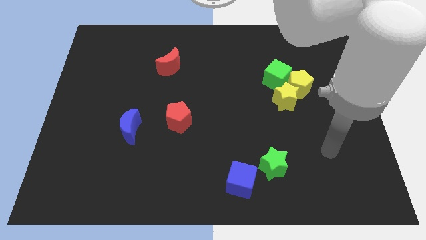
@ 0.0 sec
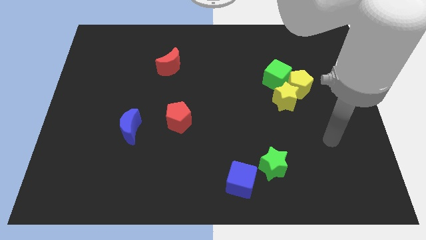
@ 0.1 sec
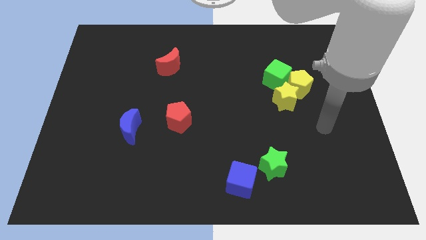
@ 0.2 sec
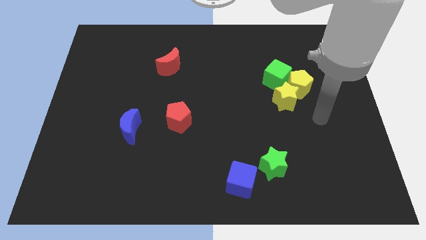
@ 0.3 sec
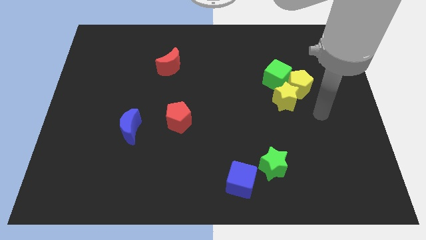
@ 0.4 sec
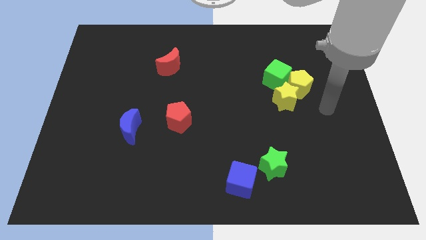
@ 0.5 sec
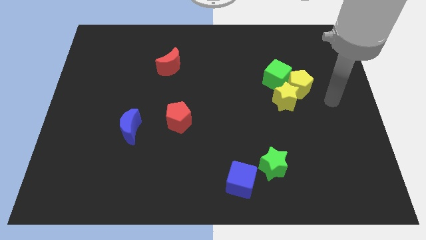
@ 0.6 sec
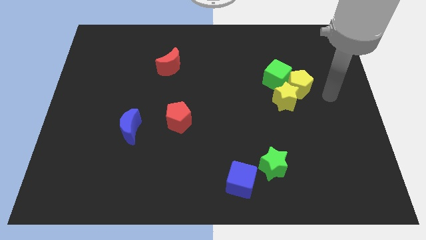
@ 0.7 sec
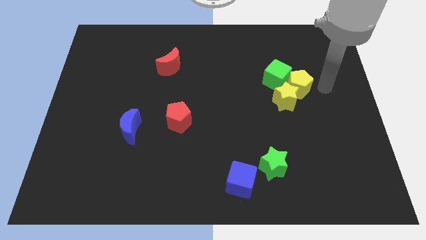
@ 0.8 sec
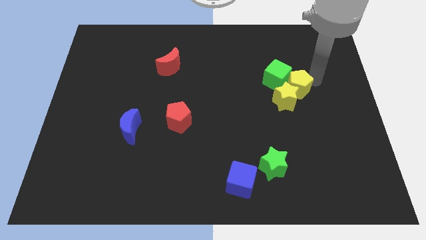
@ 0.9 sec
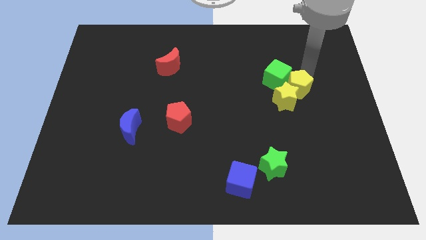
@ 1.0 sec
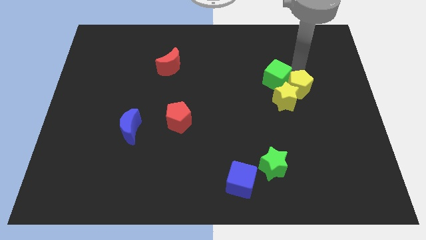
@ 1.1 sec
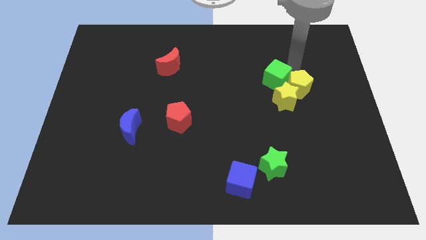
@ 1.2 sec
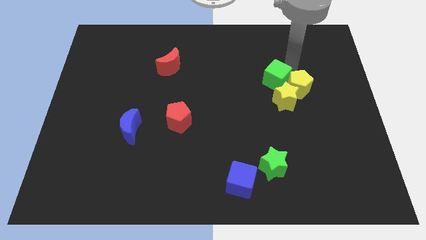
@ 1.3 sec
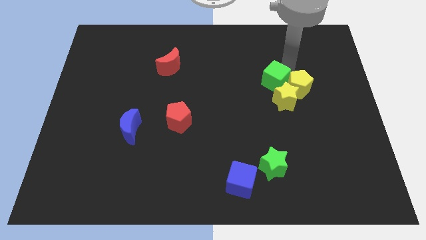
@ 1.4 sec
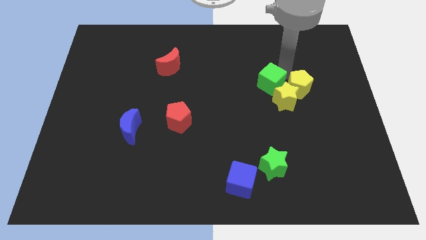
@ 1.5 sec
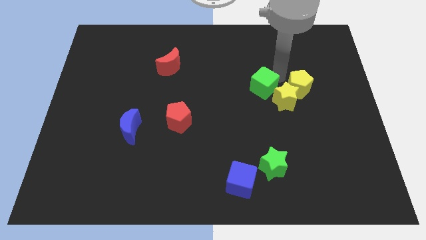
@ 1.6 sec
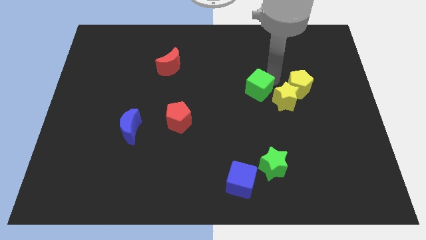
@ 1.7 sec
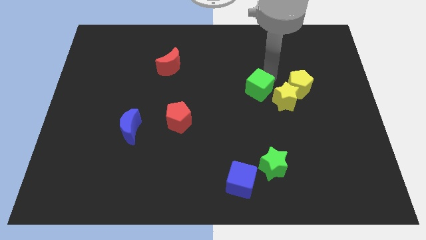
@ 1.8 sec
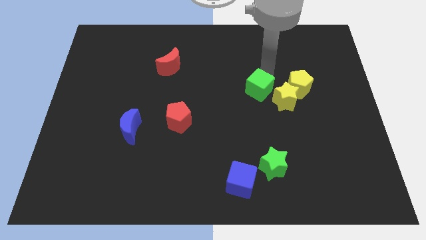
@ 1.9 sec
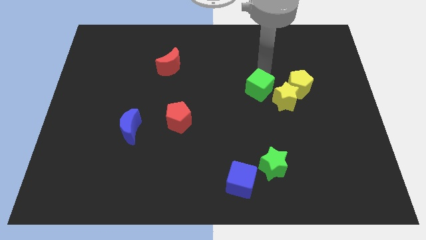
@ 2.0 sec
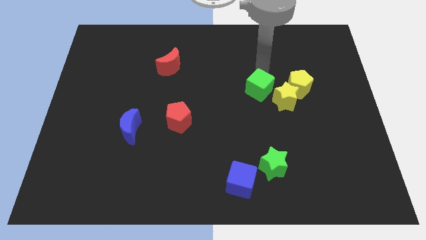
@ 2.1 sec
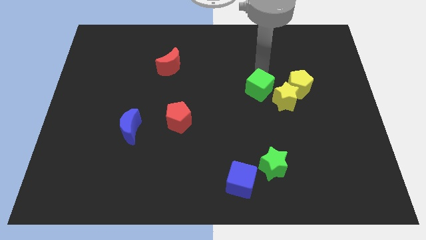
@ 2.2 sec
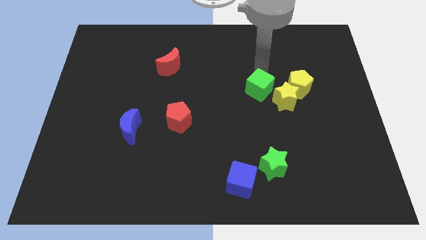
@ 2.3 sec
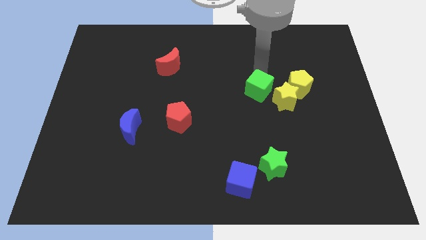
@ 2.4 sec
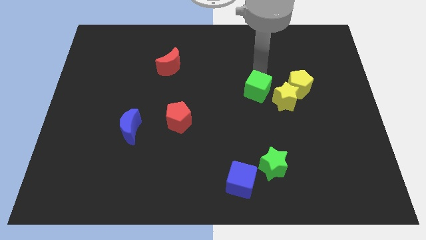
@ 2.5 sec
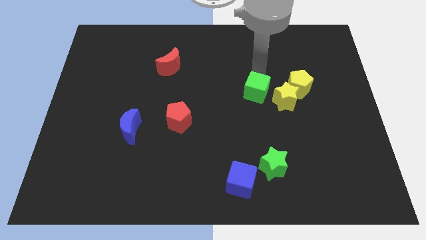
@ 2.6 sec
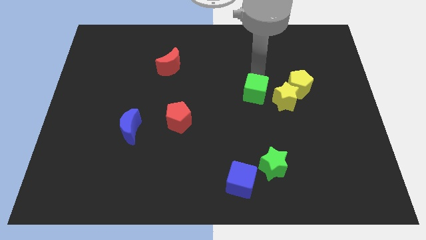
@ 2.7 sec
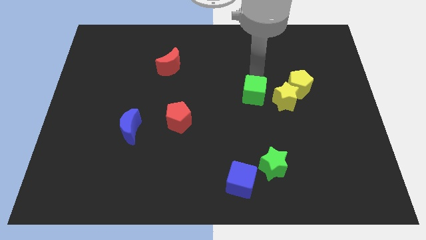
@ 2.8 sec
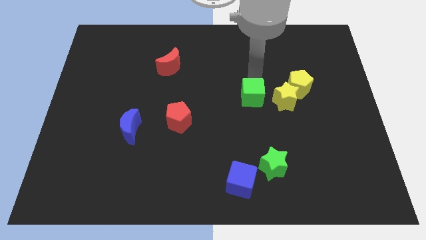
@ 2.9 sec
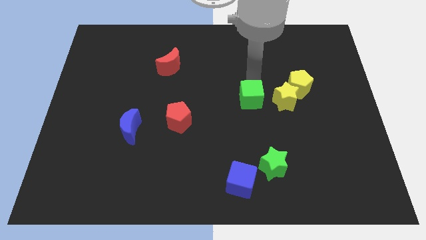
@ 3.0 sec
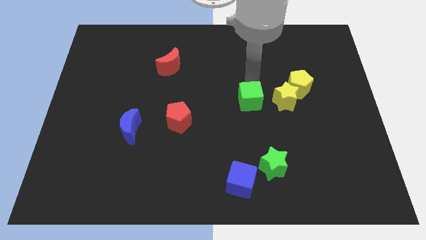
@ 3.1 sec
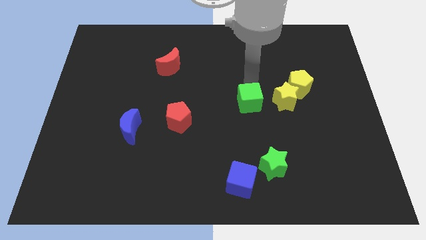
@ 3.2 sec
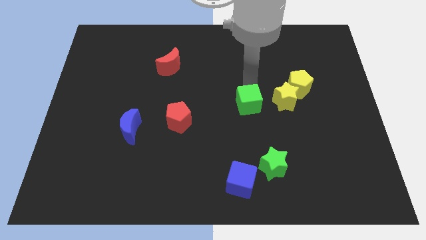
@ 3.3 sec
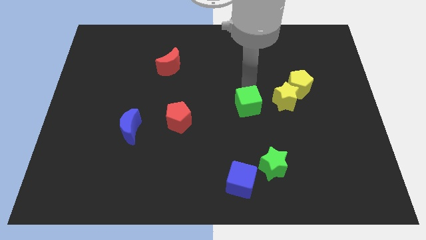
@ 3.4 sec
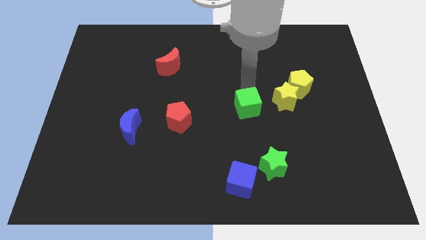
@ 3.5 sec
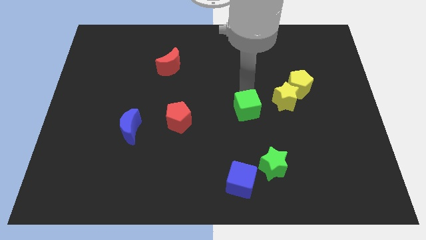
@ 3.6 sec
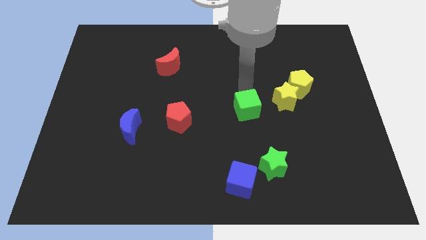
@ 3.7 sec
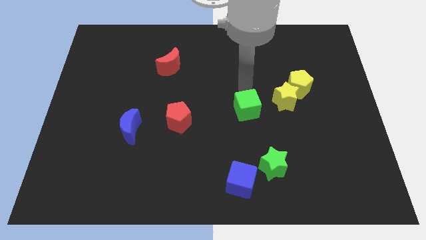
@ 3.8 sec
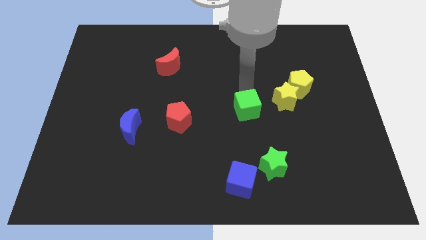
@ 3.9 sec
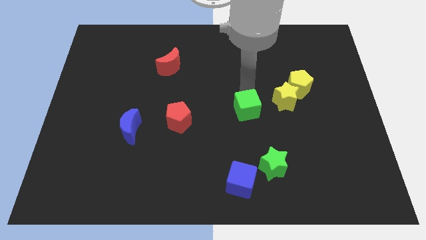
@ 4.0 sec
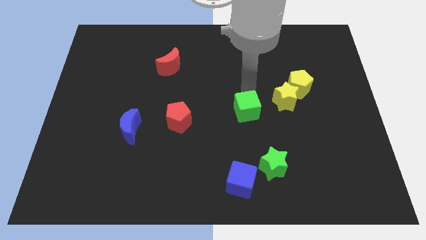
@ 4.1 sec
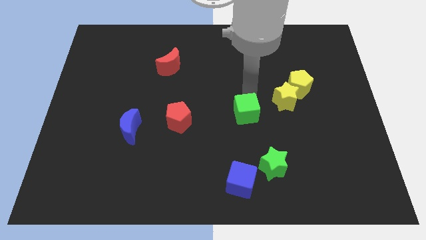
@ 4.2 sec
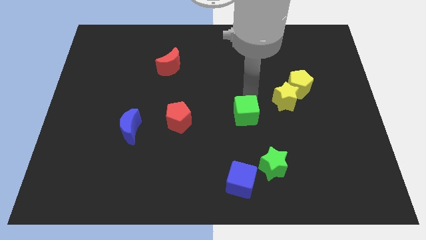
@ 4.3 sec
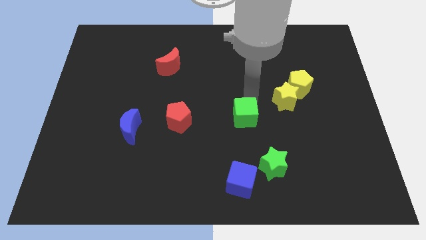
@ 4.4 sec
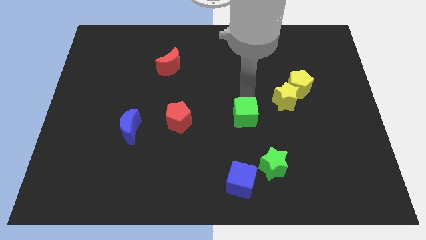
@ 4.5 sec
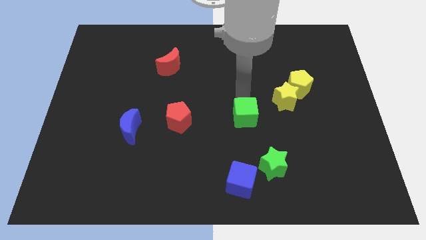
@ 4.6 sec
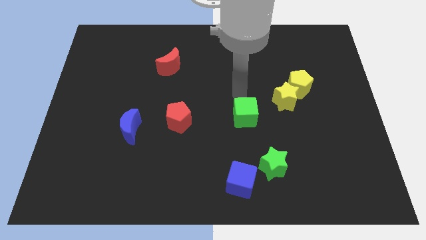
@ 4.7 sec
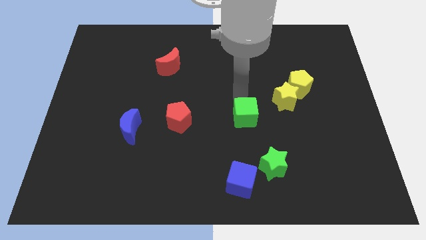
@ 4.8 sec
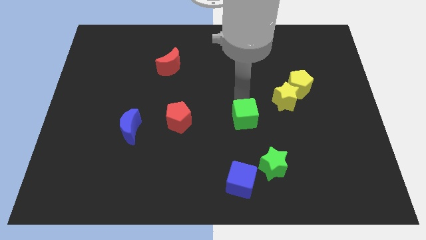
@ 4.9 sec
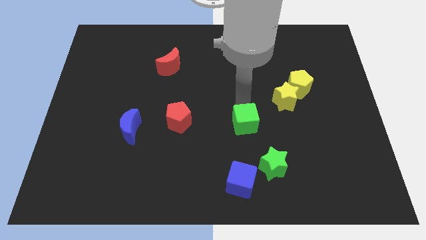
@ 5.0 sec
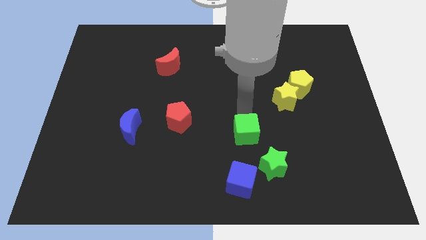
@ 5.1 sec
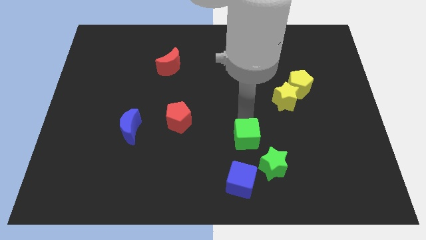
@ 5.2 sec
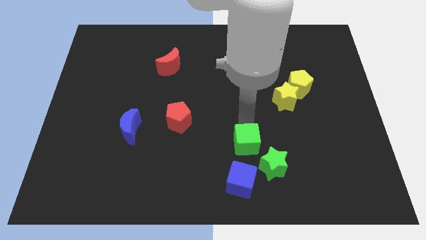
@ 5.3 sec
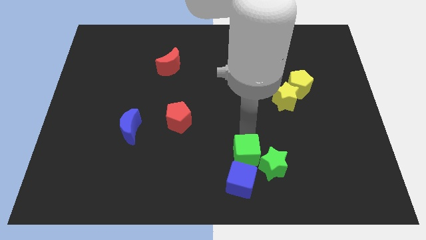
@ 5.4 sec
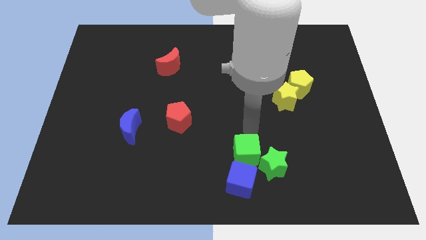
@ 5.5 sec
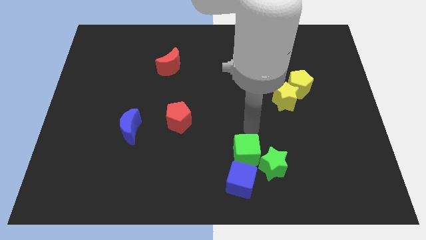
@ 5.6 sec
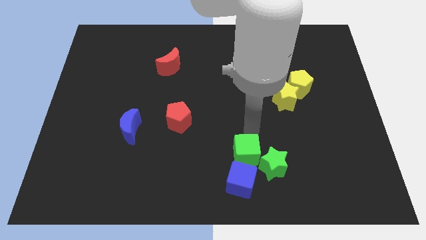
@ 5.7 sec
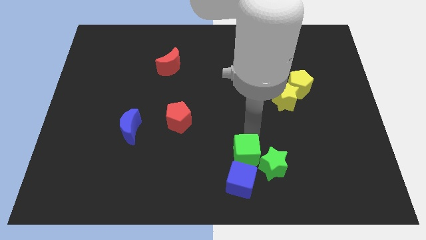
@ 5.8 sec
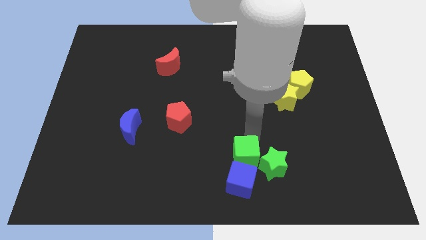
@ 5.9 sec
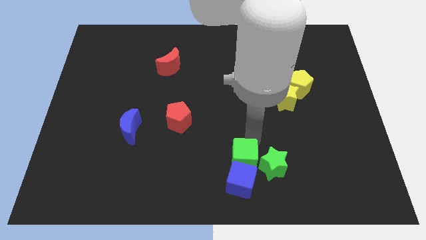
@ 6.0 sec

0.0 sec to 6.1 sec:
push the green cube towards the blue cube

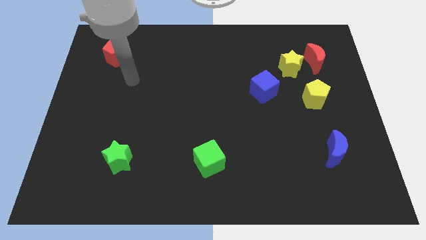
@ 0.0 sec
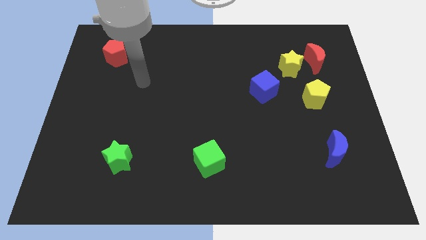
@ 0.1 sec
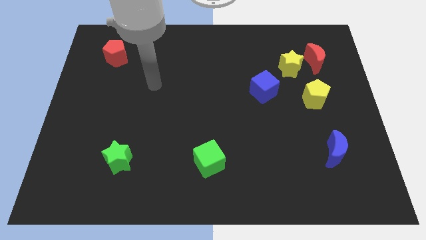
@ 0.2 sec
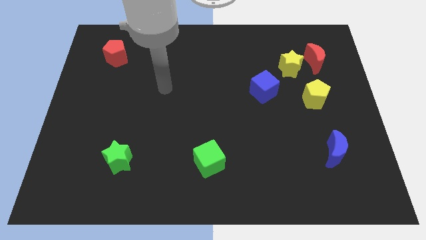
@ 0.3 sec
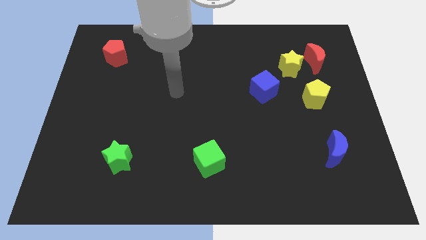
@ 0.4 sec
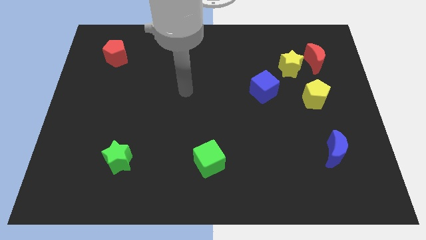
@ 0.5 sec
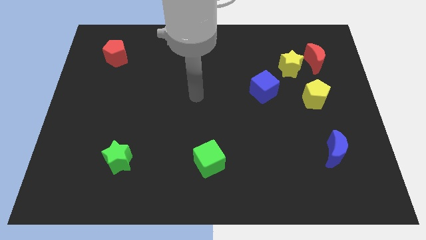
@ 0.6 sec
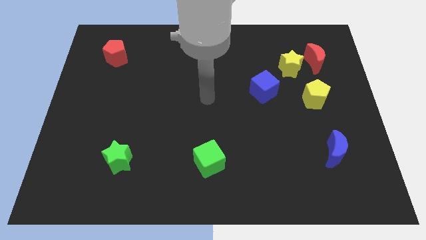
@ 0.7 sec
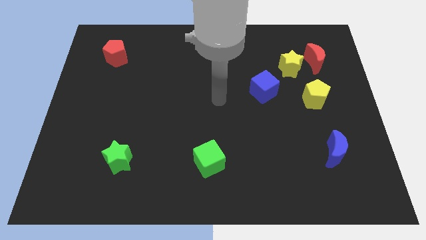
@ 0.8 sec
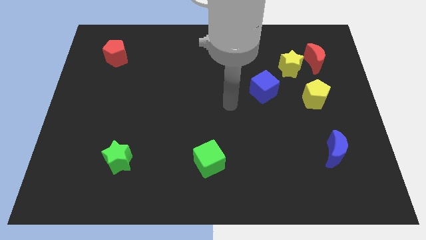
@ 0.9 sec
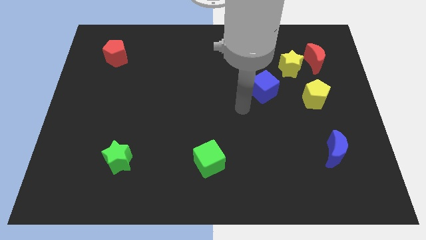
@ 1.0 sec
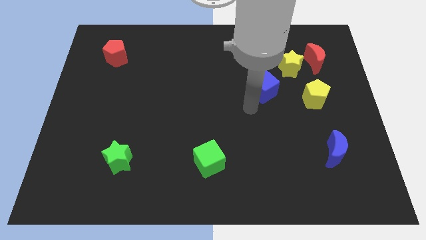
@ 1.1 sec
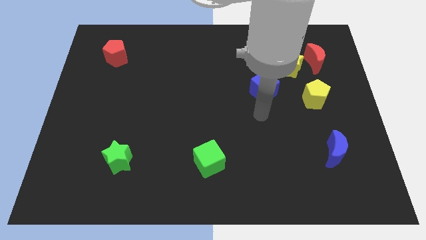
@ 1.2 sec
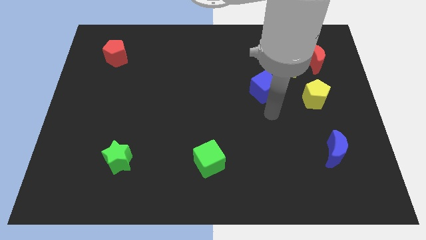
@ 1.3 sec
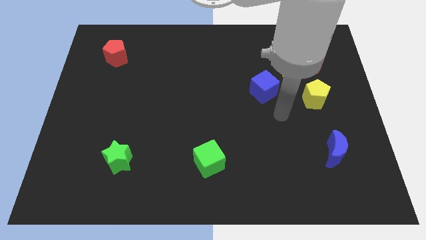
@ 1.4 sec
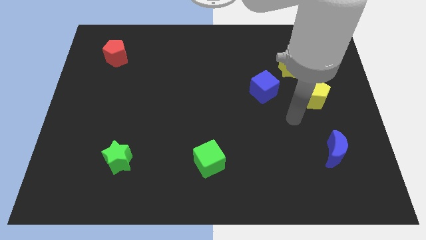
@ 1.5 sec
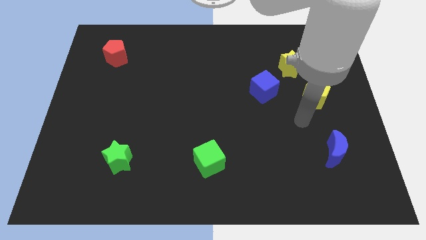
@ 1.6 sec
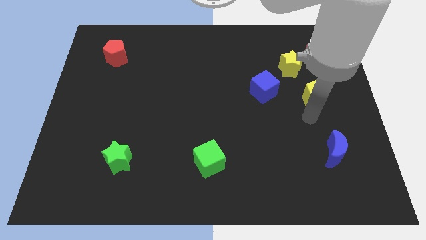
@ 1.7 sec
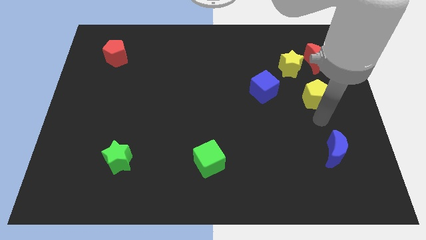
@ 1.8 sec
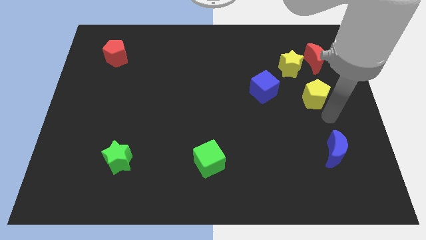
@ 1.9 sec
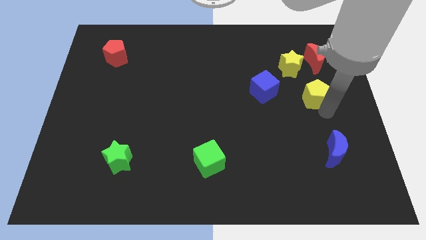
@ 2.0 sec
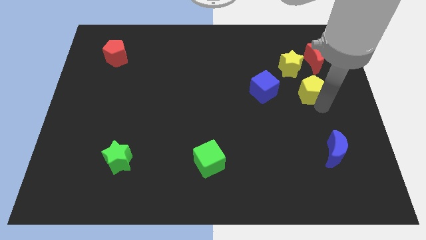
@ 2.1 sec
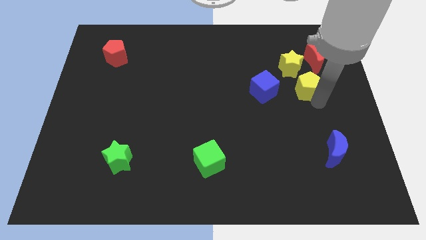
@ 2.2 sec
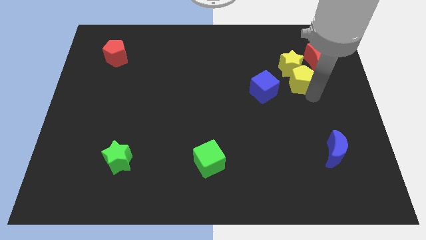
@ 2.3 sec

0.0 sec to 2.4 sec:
move the yellow pentagon close to the yellow star
